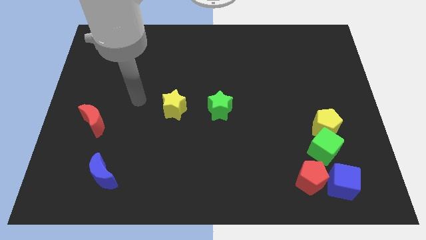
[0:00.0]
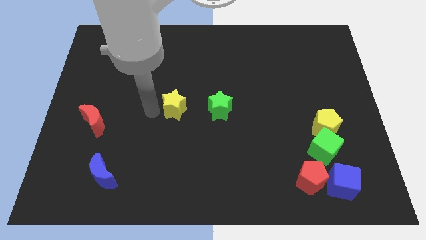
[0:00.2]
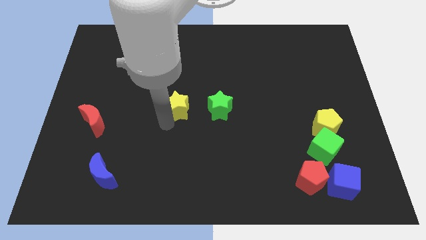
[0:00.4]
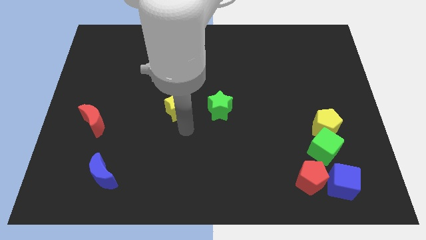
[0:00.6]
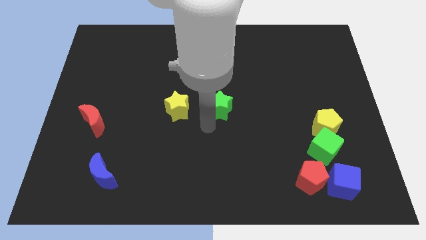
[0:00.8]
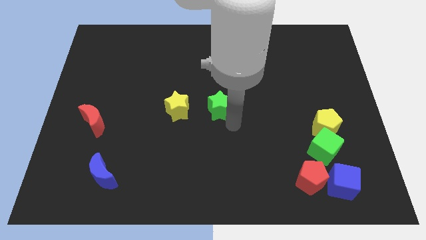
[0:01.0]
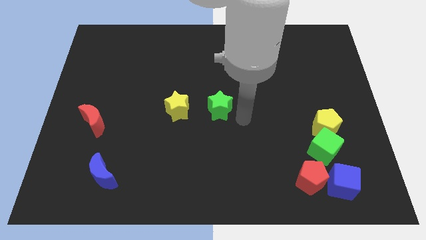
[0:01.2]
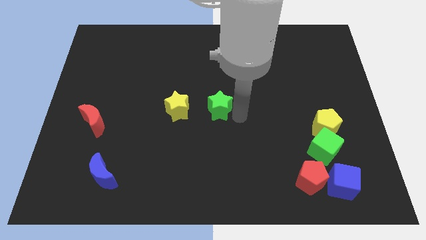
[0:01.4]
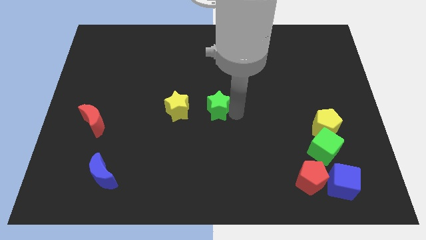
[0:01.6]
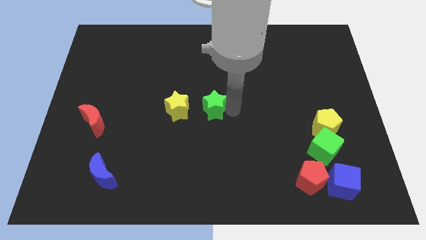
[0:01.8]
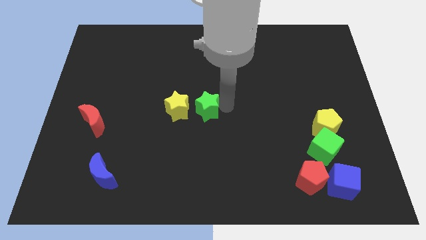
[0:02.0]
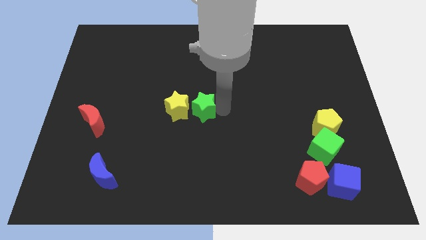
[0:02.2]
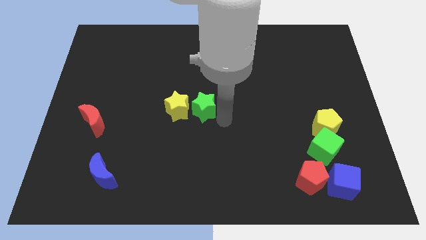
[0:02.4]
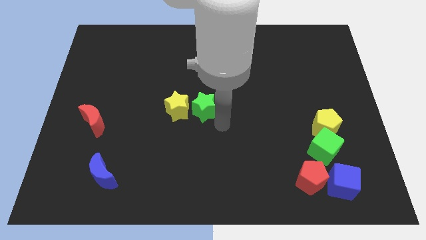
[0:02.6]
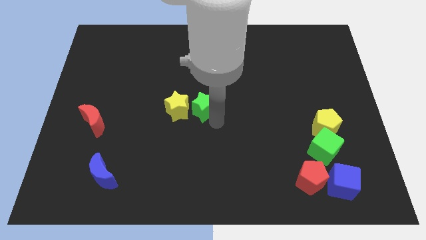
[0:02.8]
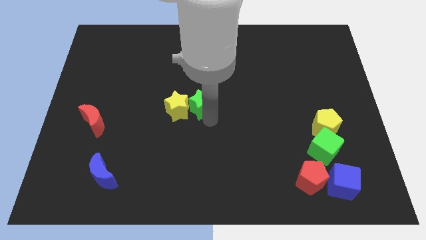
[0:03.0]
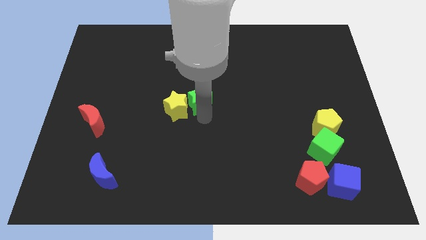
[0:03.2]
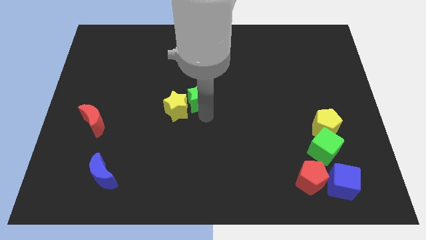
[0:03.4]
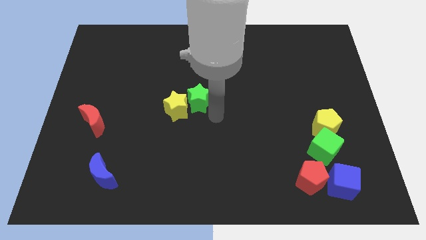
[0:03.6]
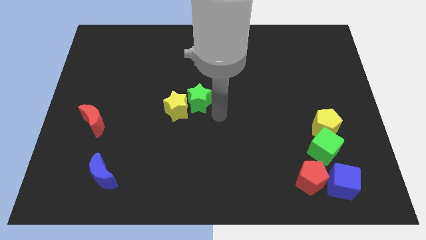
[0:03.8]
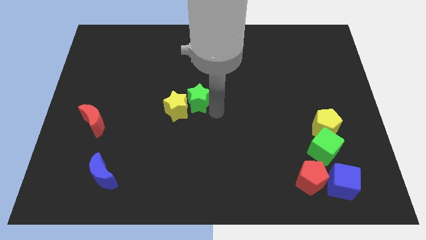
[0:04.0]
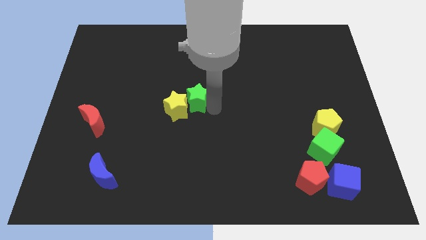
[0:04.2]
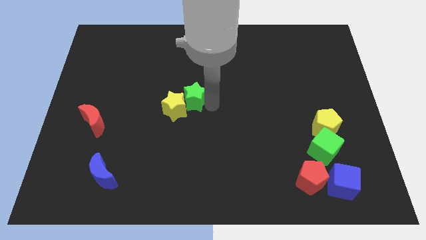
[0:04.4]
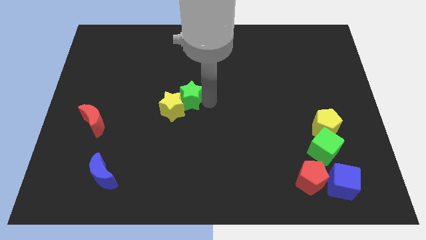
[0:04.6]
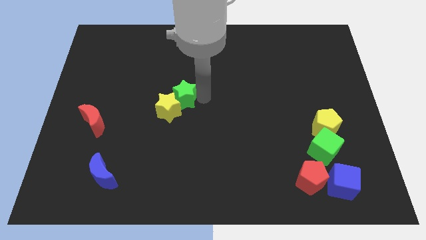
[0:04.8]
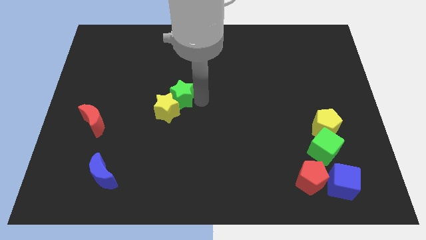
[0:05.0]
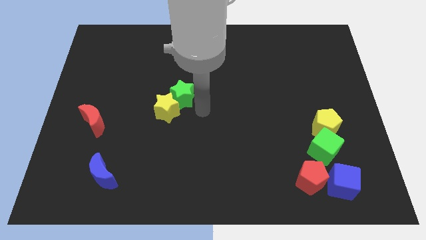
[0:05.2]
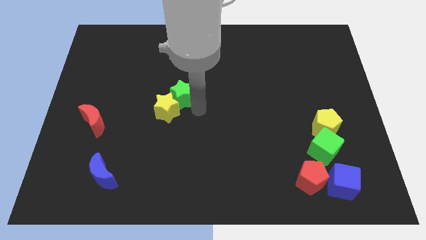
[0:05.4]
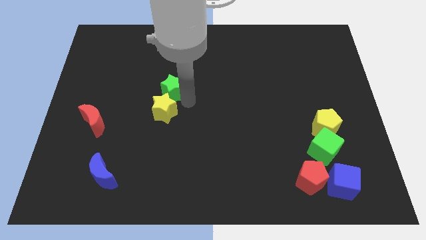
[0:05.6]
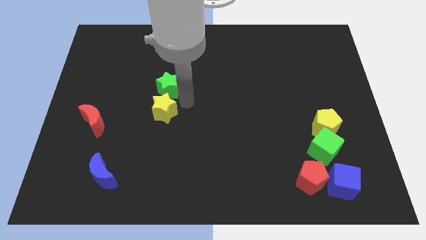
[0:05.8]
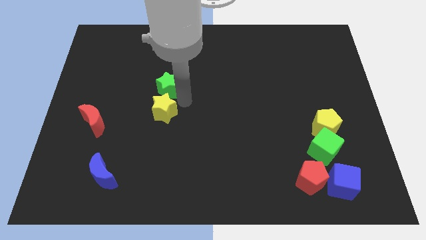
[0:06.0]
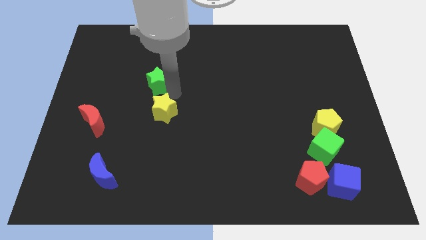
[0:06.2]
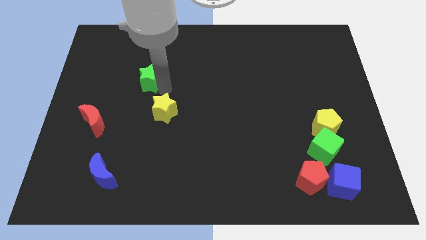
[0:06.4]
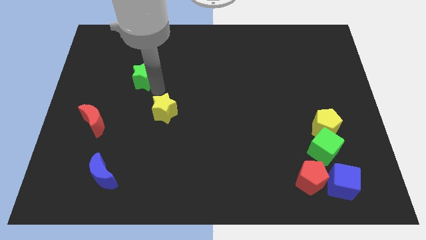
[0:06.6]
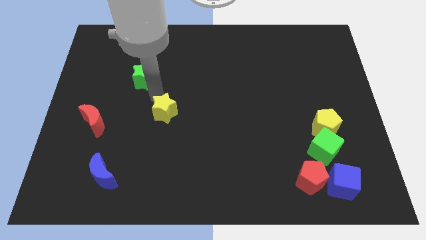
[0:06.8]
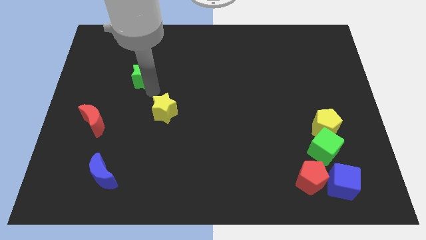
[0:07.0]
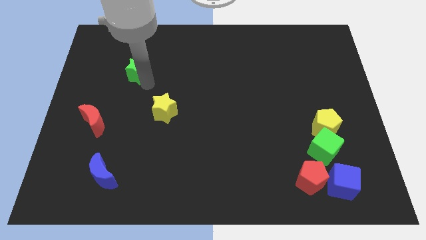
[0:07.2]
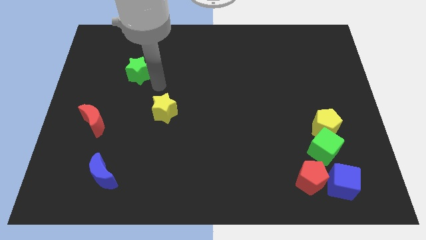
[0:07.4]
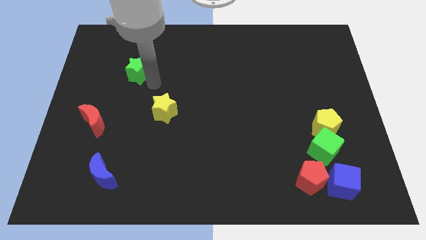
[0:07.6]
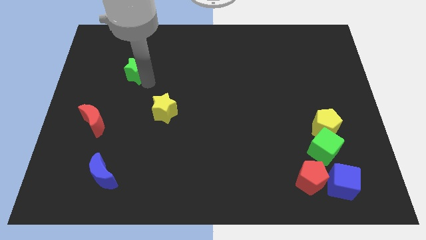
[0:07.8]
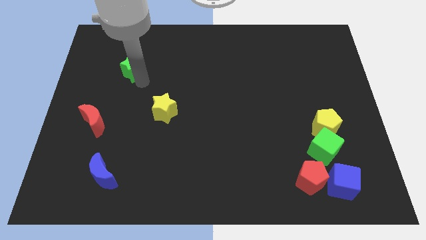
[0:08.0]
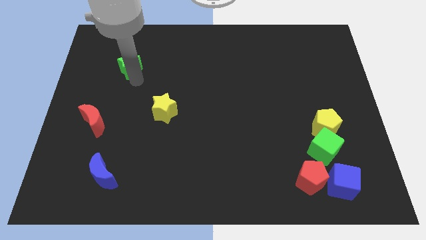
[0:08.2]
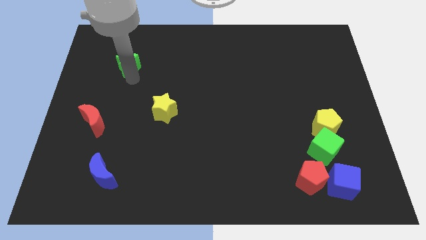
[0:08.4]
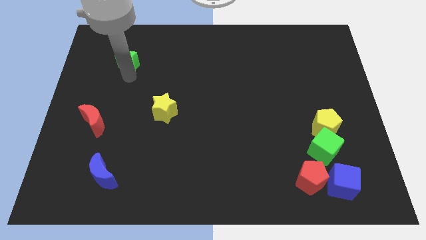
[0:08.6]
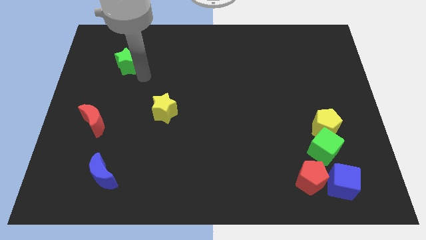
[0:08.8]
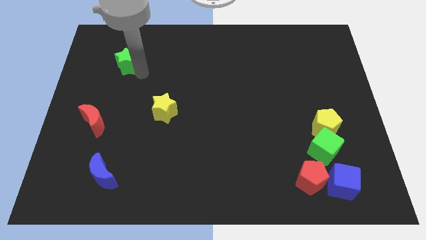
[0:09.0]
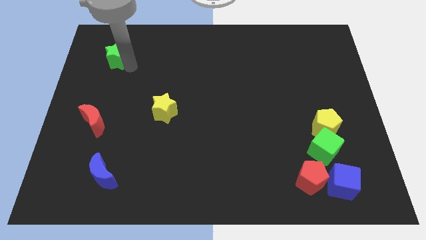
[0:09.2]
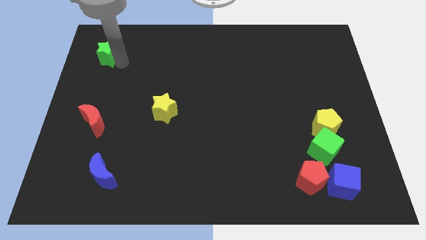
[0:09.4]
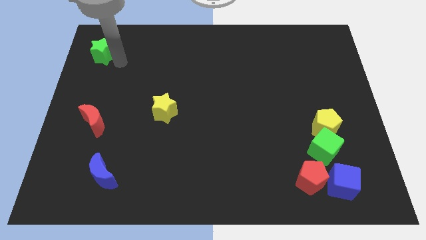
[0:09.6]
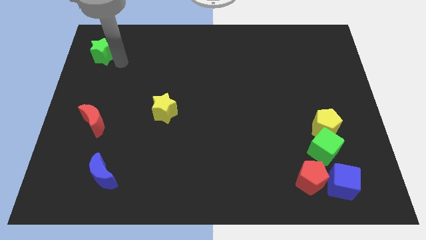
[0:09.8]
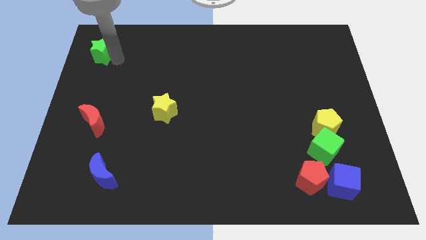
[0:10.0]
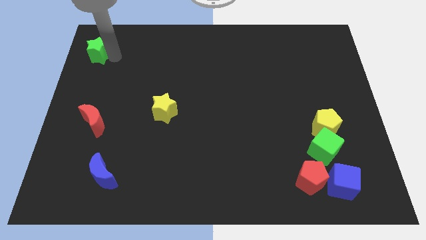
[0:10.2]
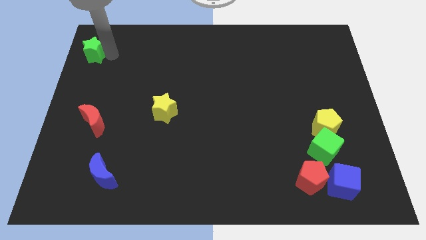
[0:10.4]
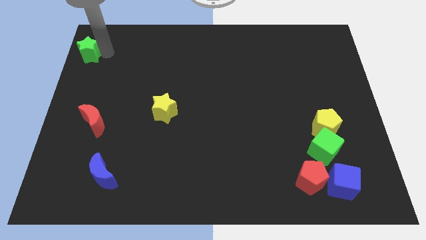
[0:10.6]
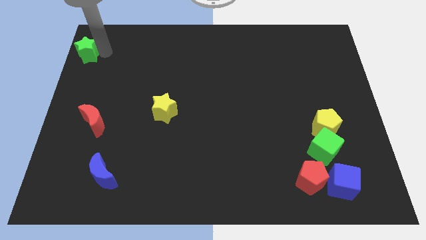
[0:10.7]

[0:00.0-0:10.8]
put the green star to the upper left corner

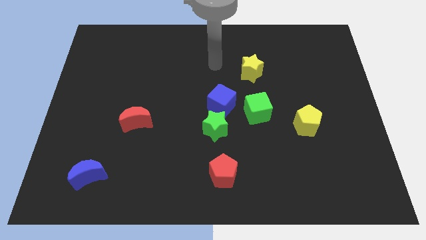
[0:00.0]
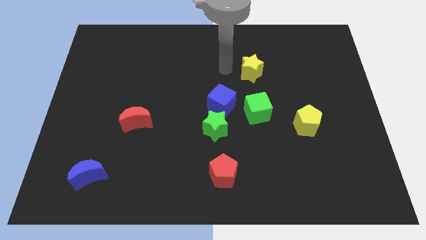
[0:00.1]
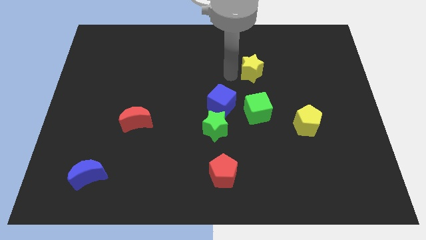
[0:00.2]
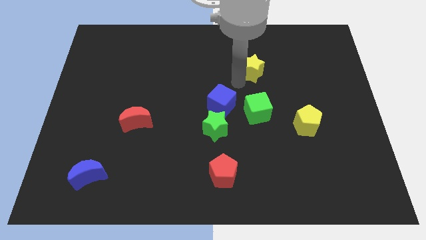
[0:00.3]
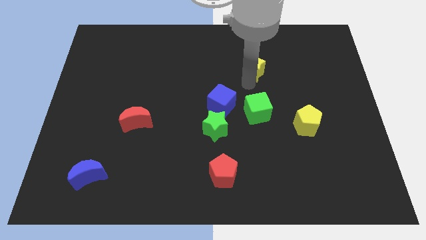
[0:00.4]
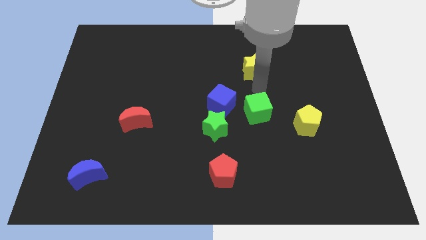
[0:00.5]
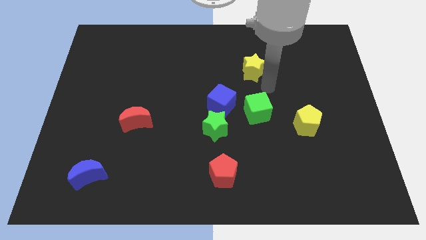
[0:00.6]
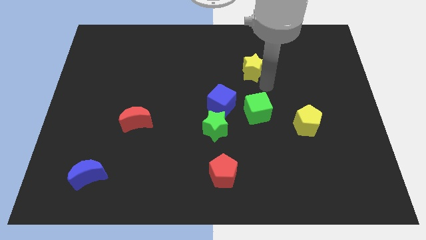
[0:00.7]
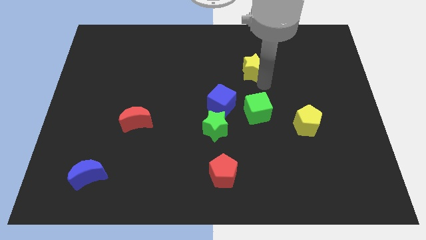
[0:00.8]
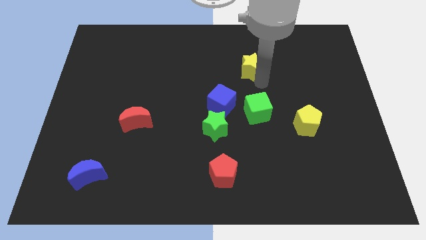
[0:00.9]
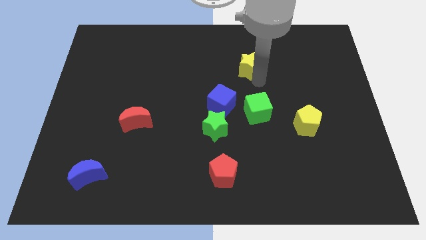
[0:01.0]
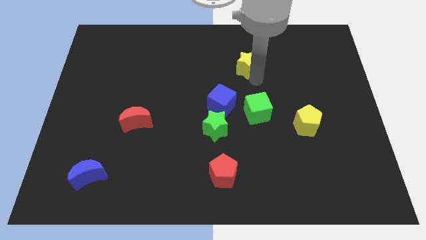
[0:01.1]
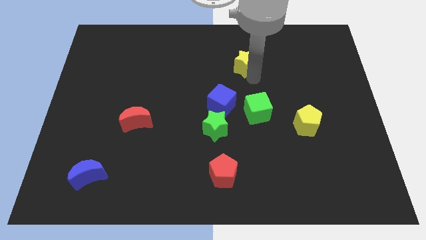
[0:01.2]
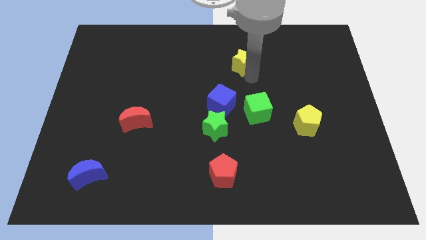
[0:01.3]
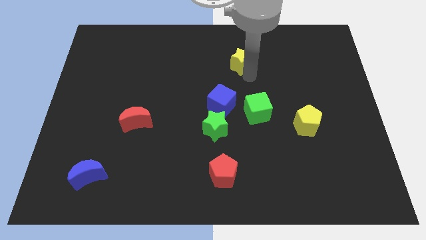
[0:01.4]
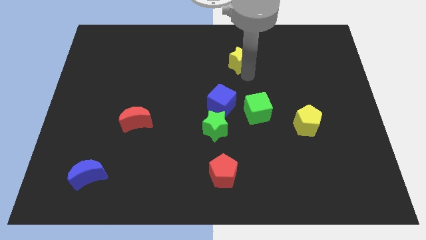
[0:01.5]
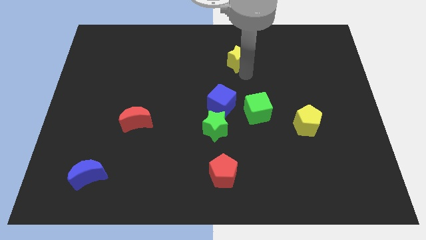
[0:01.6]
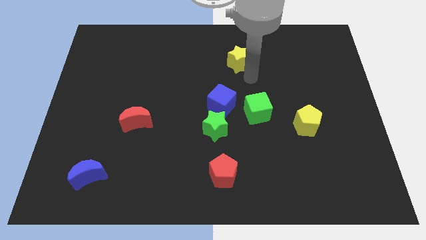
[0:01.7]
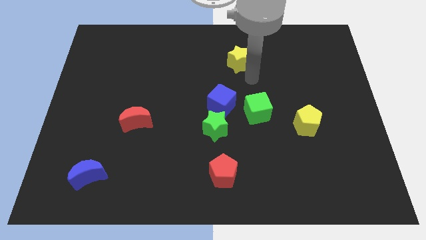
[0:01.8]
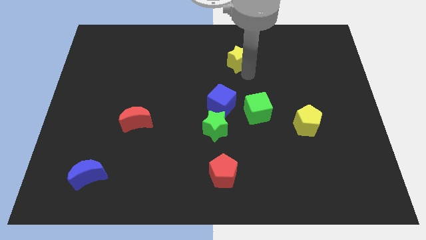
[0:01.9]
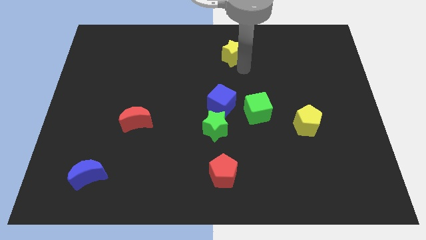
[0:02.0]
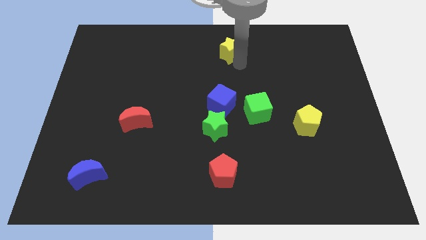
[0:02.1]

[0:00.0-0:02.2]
slide the yellow star to the top
